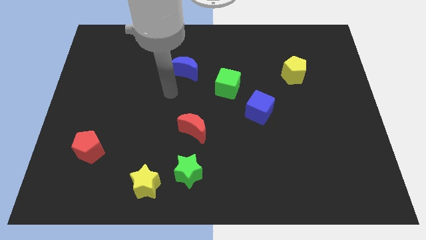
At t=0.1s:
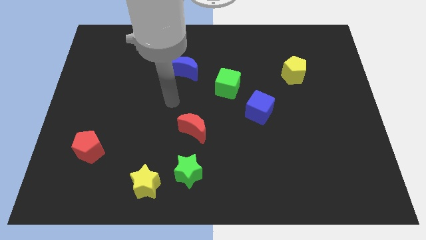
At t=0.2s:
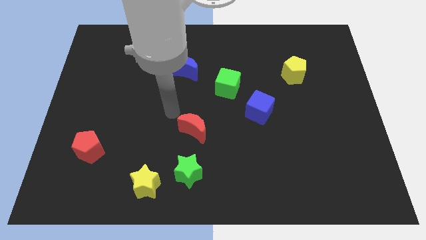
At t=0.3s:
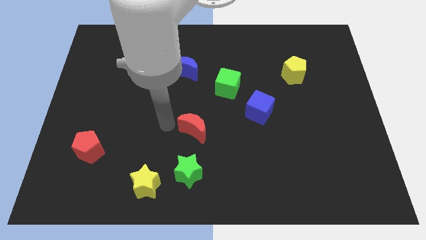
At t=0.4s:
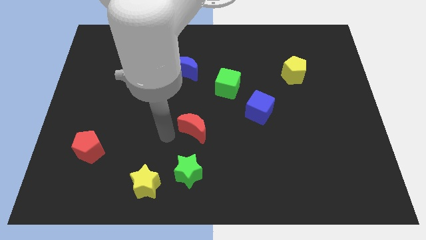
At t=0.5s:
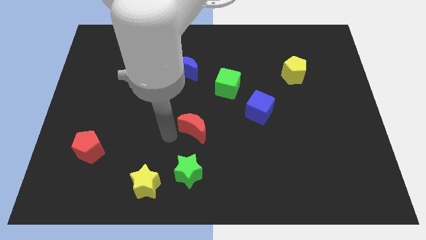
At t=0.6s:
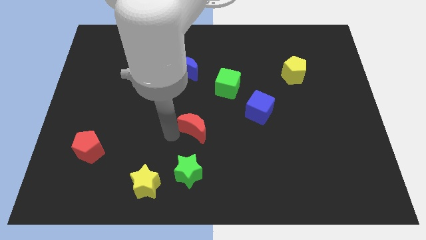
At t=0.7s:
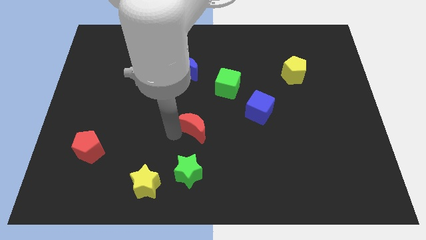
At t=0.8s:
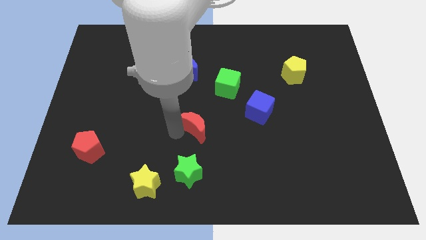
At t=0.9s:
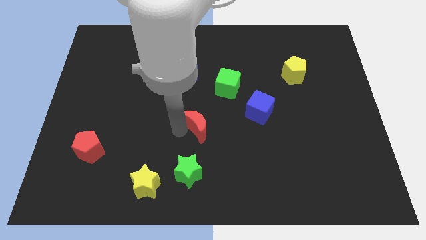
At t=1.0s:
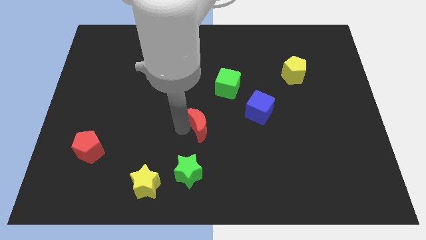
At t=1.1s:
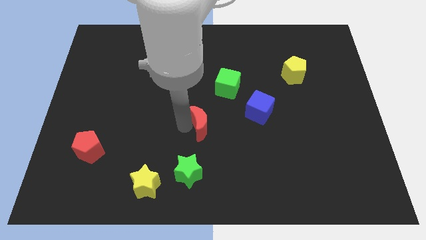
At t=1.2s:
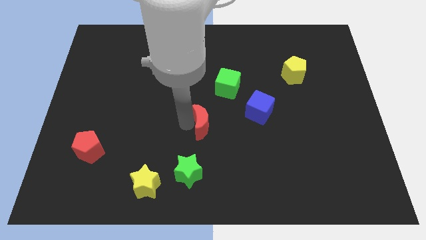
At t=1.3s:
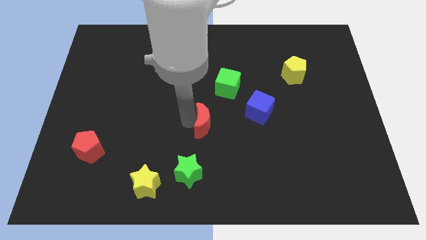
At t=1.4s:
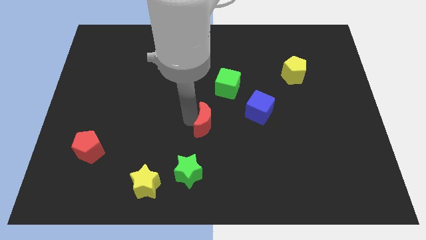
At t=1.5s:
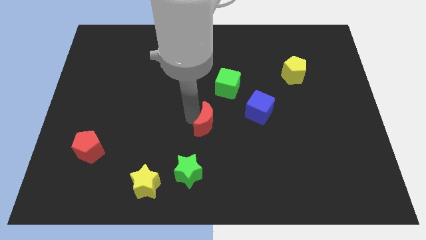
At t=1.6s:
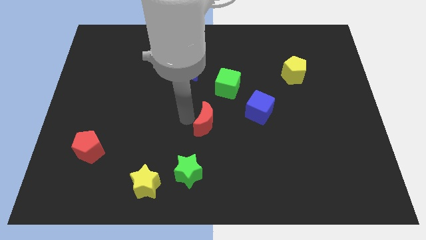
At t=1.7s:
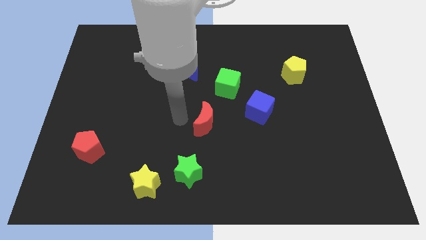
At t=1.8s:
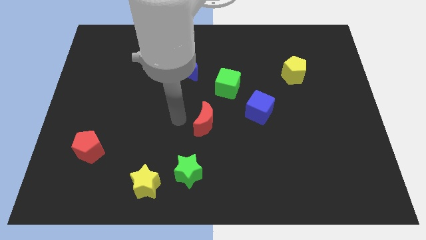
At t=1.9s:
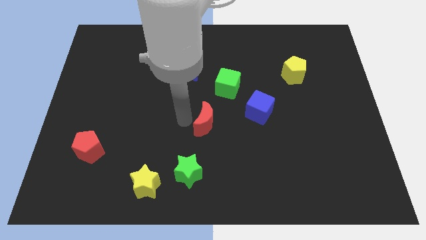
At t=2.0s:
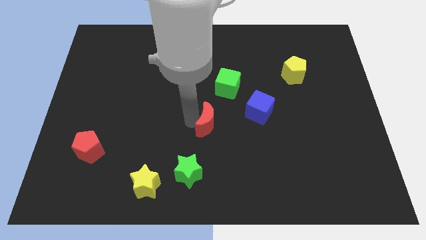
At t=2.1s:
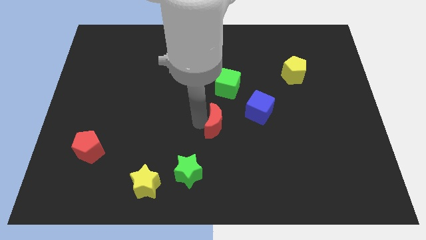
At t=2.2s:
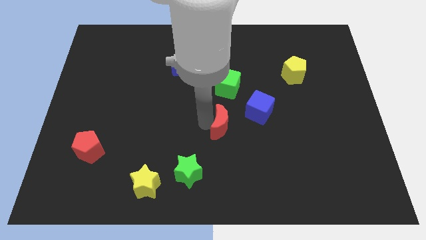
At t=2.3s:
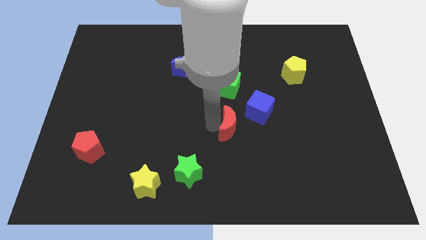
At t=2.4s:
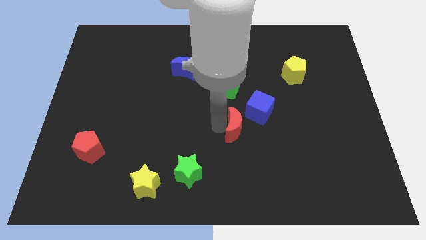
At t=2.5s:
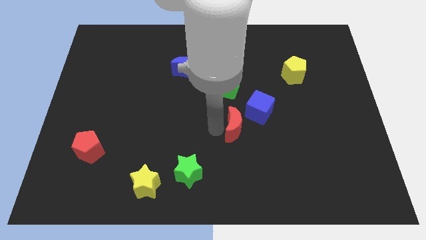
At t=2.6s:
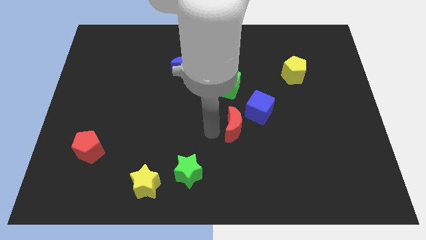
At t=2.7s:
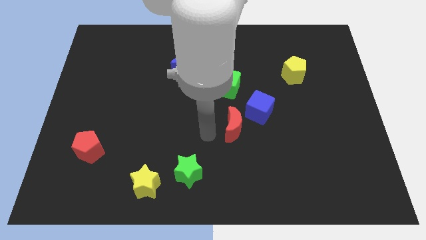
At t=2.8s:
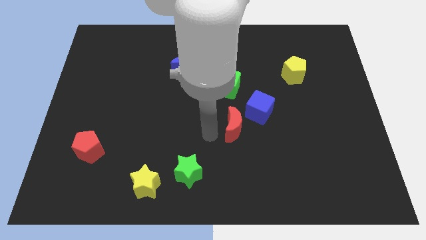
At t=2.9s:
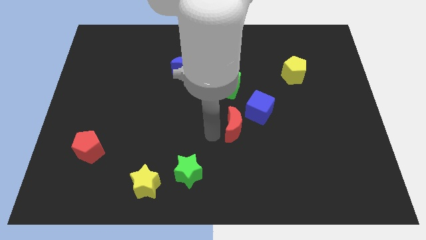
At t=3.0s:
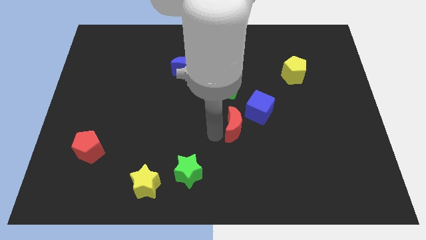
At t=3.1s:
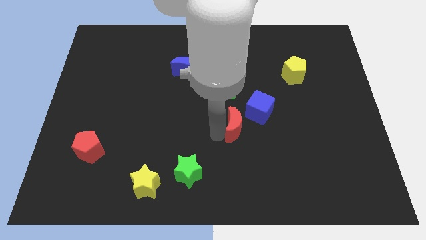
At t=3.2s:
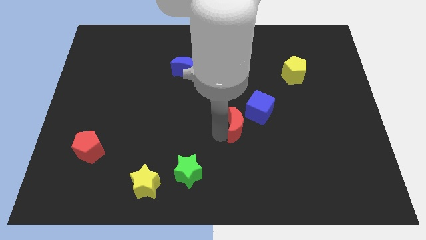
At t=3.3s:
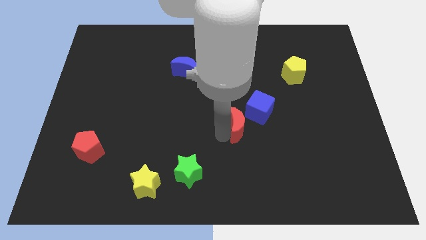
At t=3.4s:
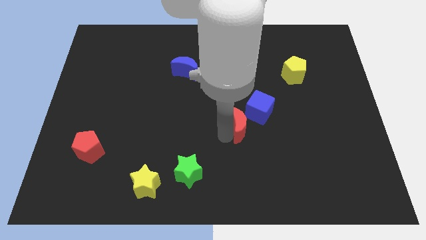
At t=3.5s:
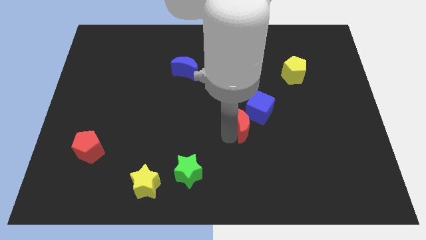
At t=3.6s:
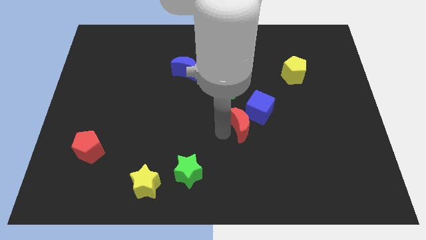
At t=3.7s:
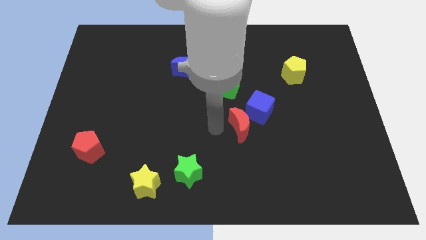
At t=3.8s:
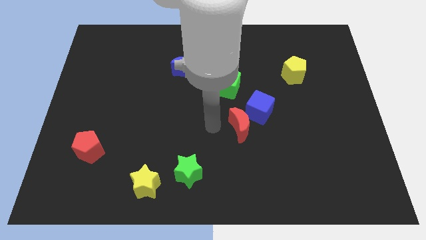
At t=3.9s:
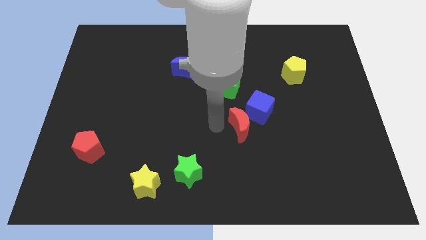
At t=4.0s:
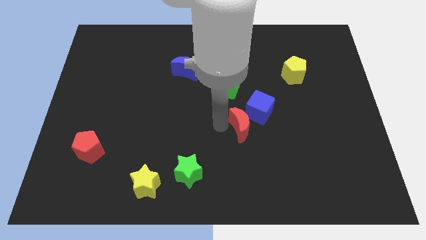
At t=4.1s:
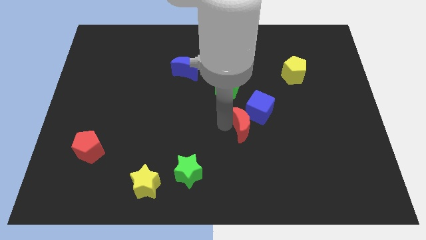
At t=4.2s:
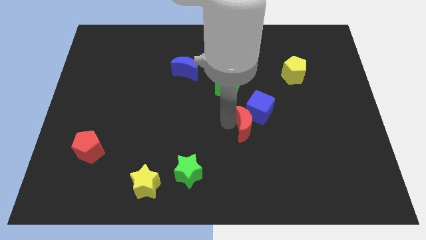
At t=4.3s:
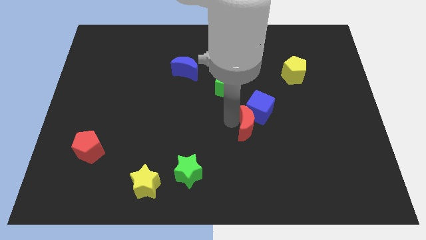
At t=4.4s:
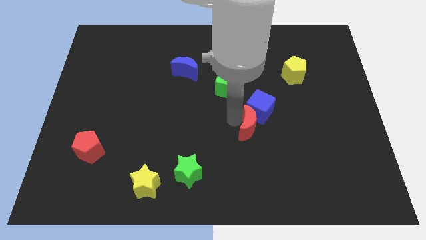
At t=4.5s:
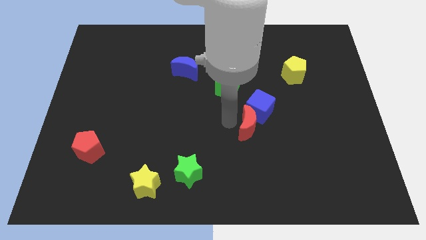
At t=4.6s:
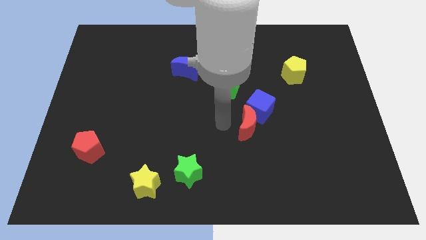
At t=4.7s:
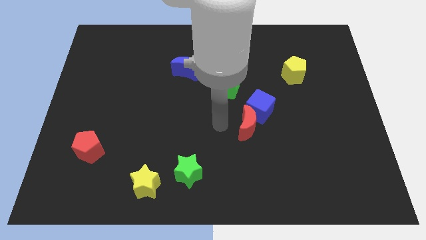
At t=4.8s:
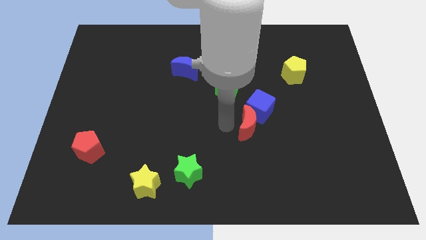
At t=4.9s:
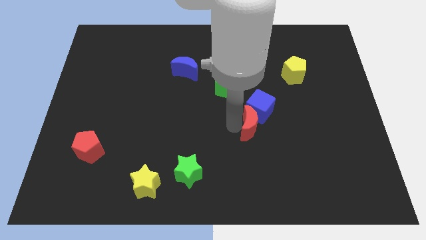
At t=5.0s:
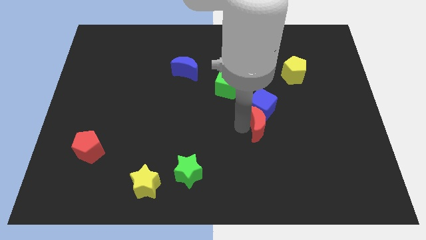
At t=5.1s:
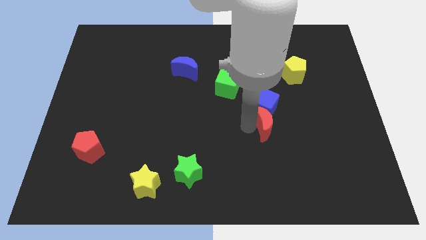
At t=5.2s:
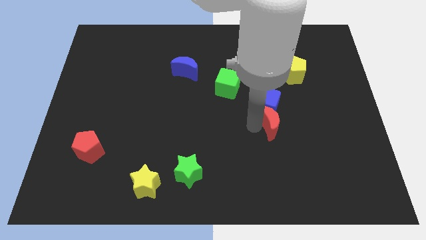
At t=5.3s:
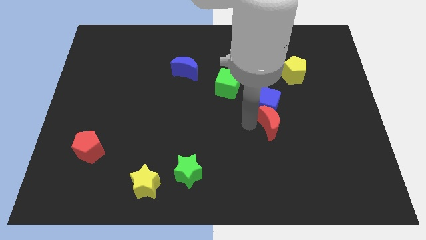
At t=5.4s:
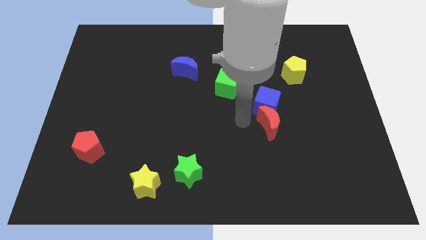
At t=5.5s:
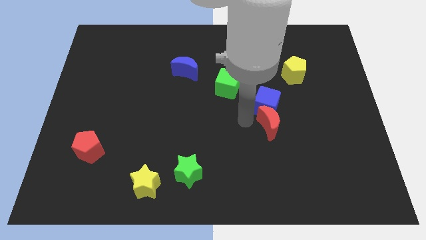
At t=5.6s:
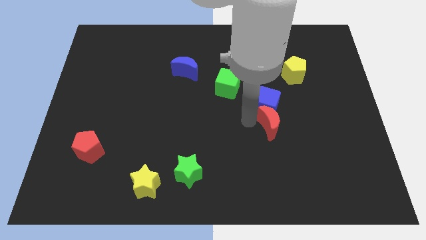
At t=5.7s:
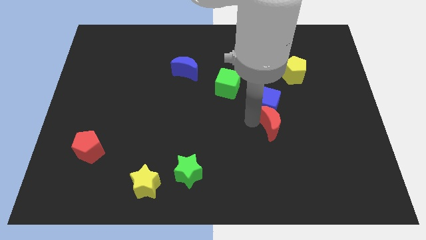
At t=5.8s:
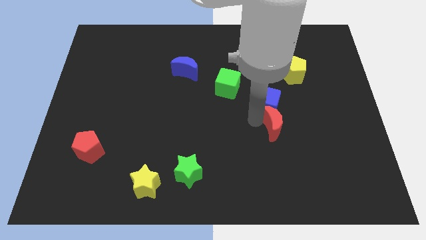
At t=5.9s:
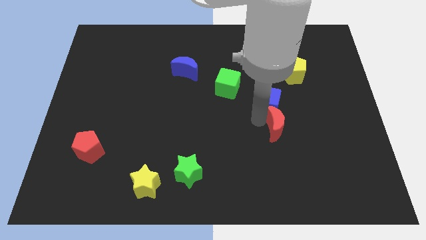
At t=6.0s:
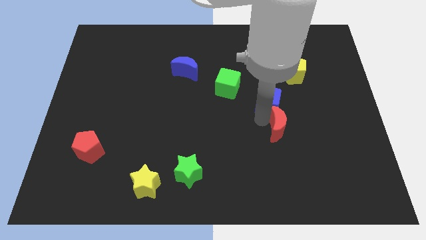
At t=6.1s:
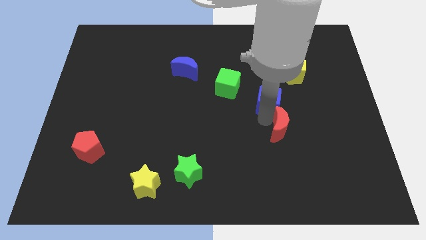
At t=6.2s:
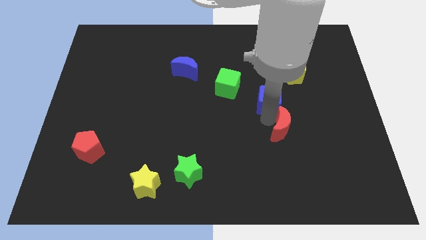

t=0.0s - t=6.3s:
slide the red moon right

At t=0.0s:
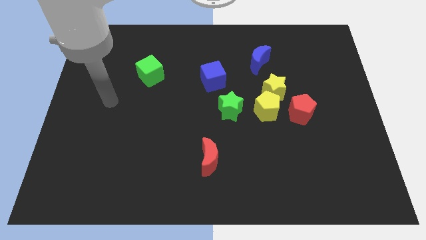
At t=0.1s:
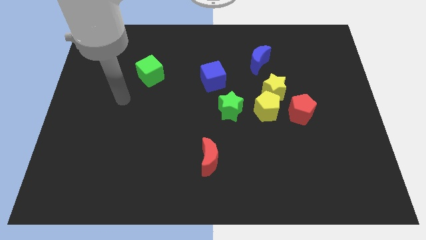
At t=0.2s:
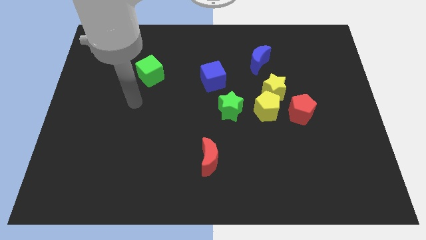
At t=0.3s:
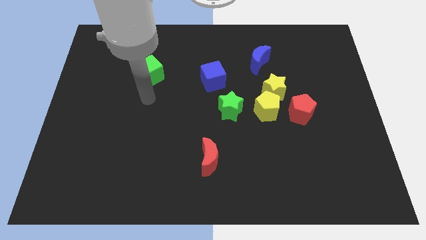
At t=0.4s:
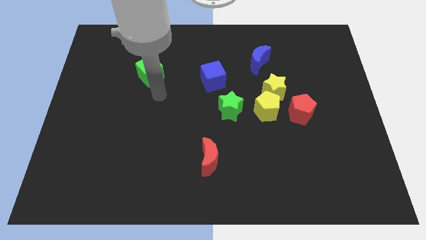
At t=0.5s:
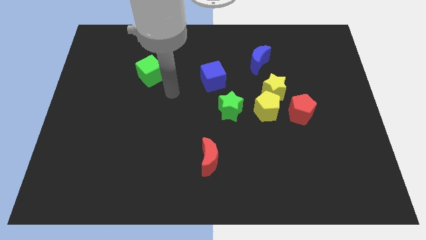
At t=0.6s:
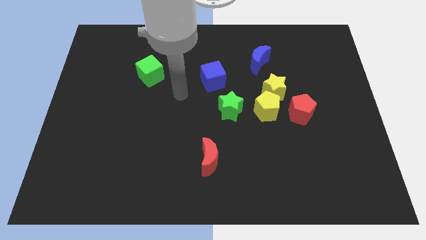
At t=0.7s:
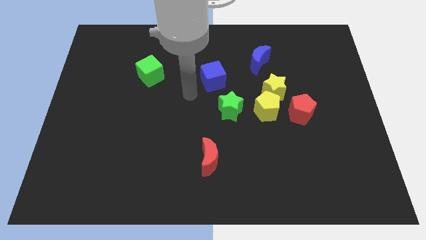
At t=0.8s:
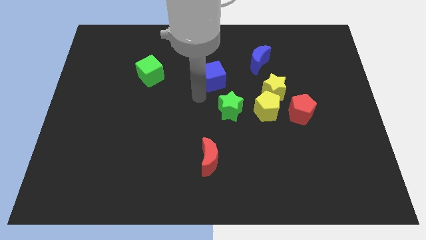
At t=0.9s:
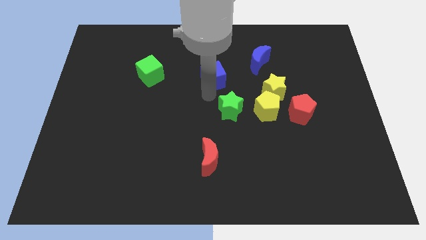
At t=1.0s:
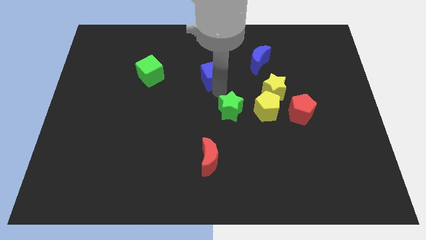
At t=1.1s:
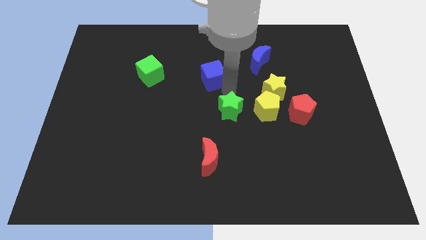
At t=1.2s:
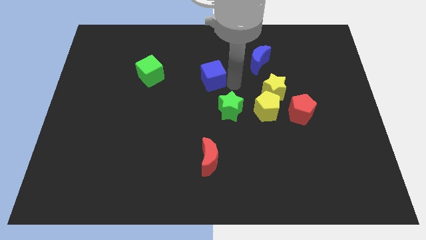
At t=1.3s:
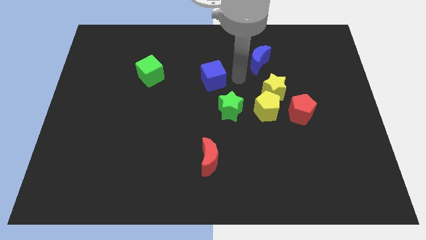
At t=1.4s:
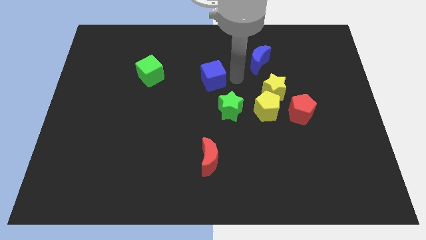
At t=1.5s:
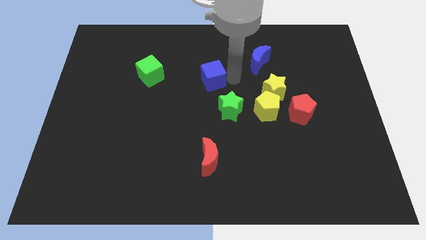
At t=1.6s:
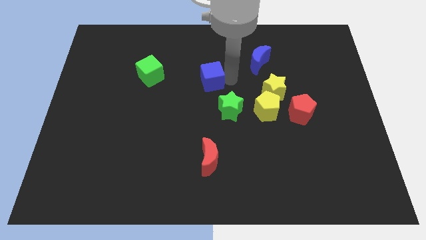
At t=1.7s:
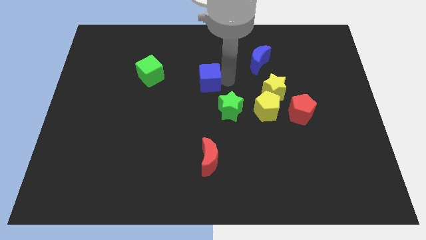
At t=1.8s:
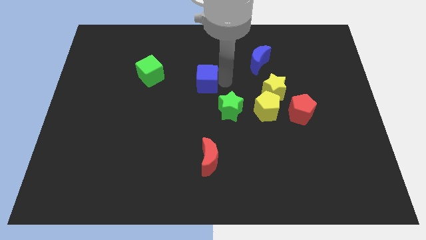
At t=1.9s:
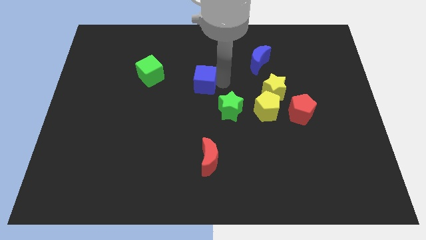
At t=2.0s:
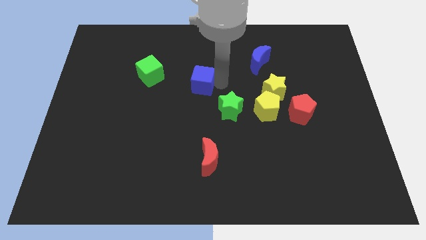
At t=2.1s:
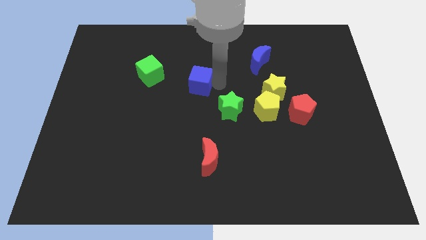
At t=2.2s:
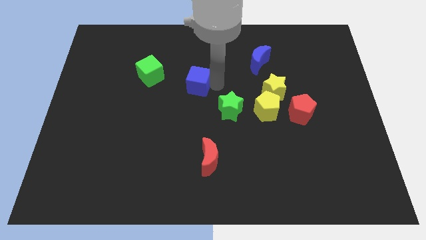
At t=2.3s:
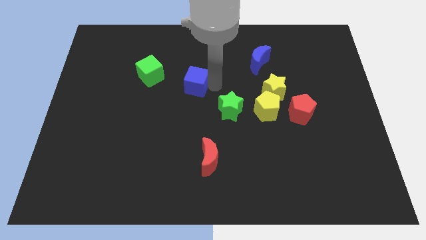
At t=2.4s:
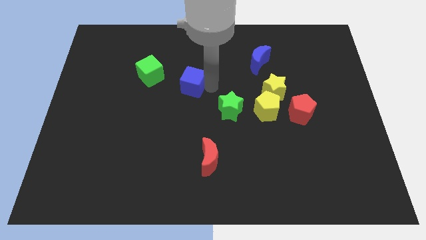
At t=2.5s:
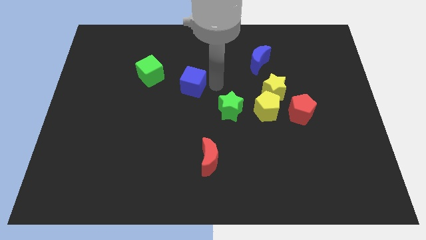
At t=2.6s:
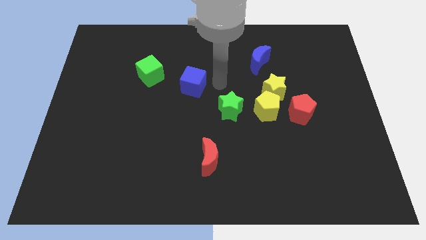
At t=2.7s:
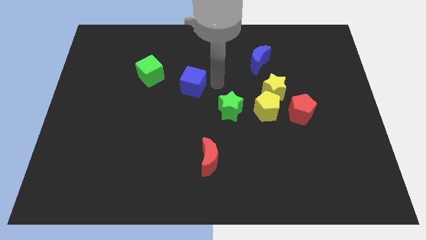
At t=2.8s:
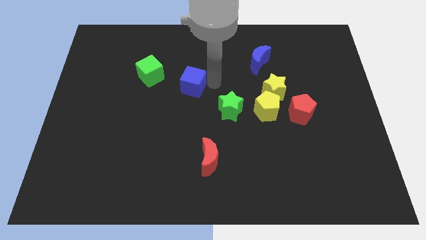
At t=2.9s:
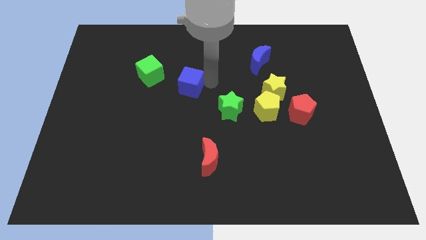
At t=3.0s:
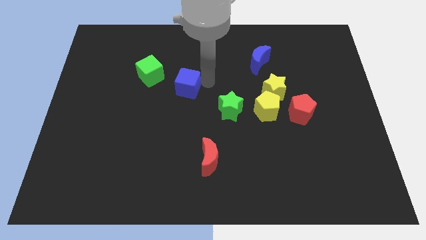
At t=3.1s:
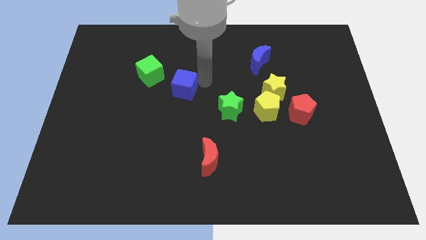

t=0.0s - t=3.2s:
push the blue cube to the left slightly
